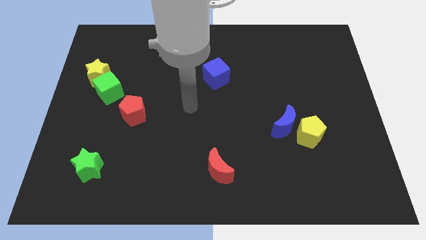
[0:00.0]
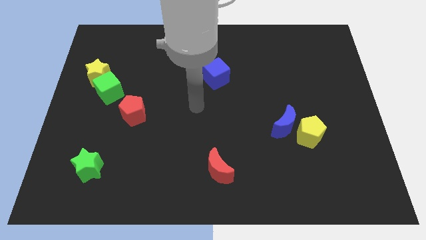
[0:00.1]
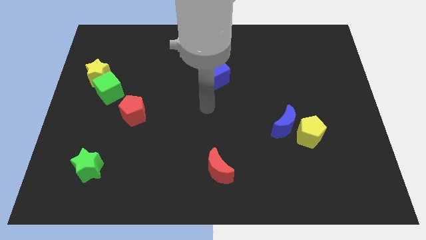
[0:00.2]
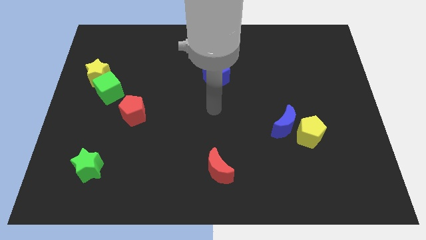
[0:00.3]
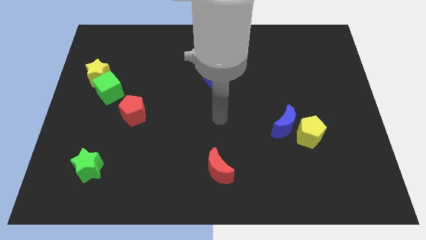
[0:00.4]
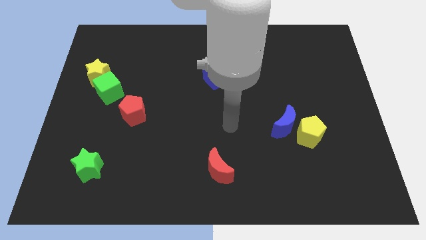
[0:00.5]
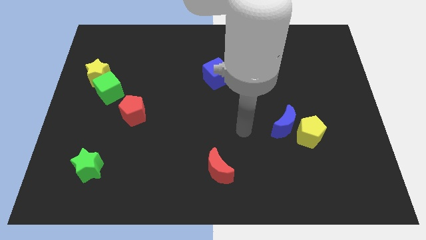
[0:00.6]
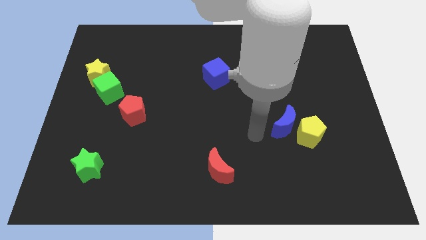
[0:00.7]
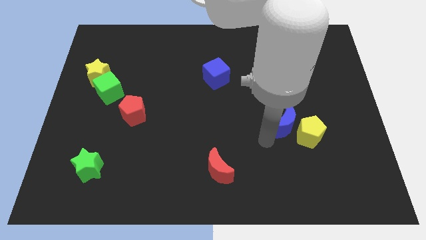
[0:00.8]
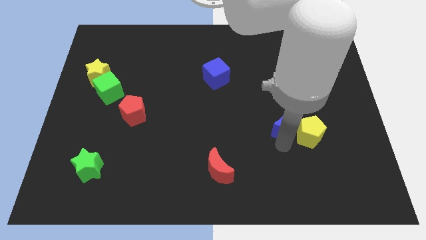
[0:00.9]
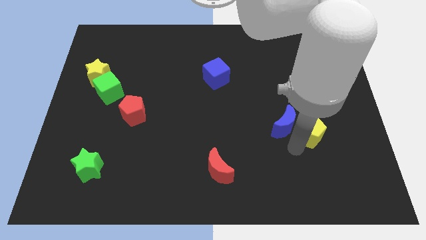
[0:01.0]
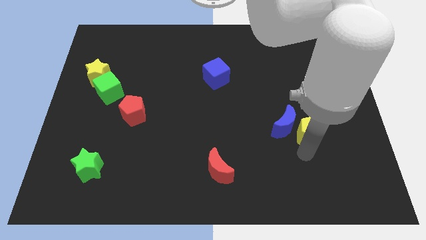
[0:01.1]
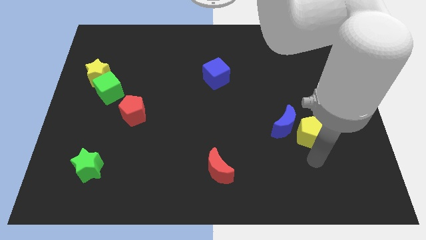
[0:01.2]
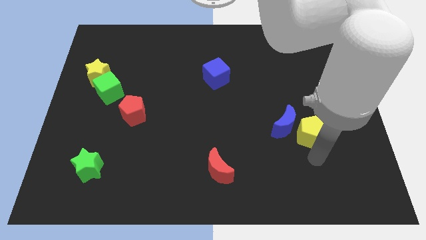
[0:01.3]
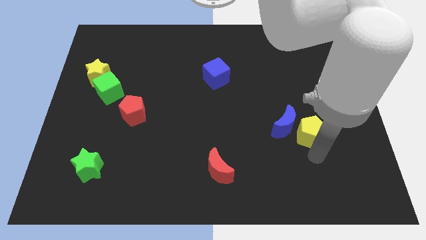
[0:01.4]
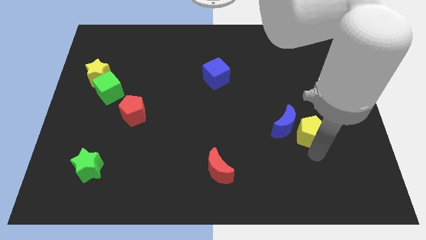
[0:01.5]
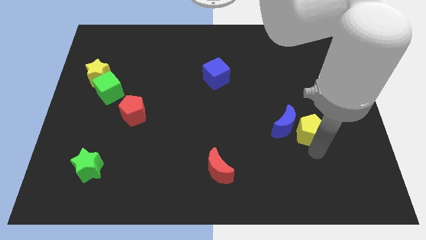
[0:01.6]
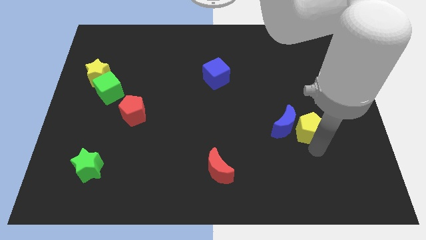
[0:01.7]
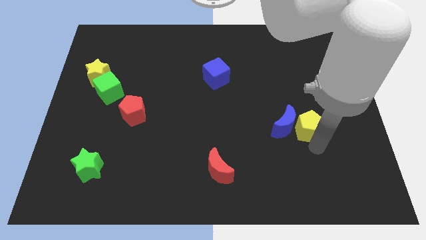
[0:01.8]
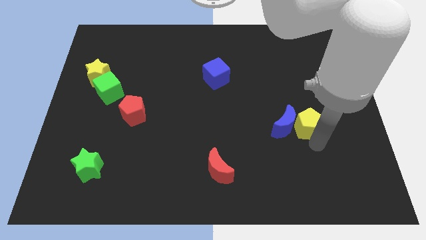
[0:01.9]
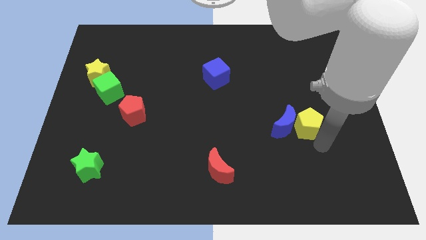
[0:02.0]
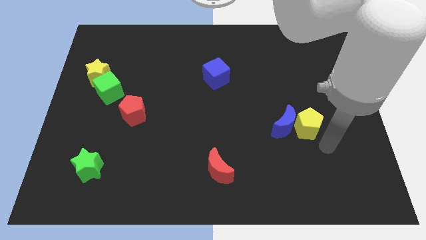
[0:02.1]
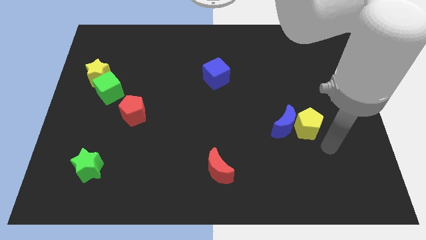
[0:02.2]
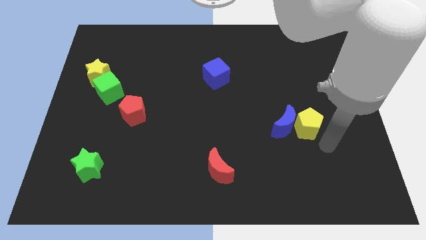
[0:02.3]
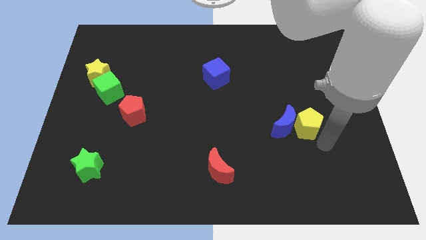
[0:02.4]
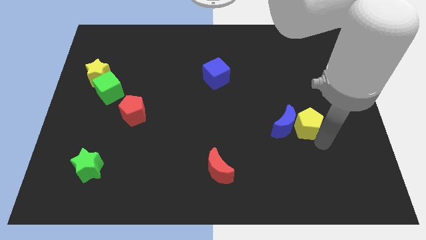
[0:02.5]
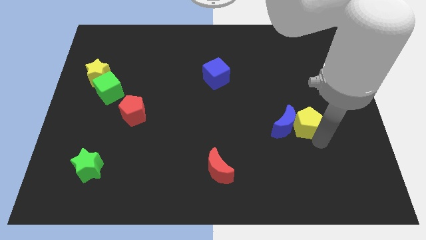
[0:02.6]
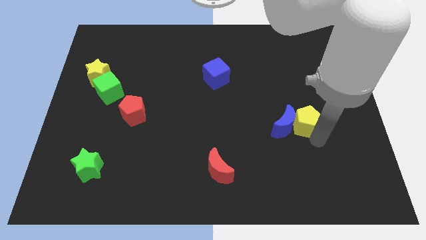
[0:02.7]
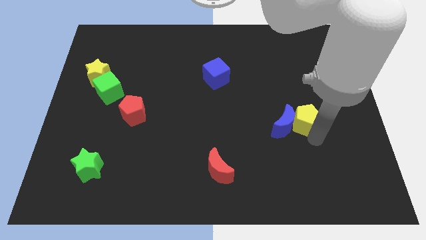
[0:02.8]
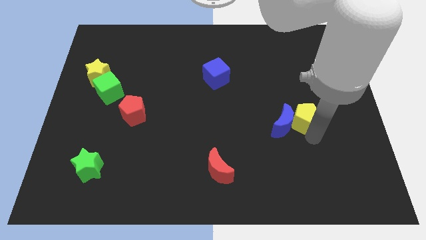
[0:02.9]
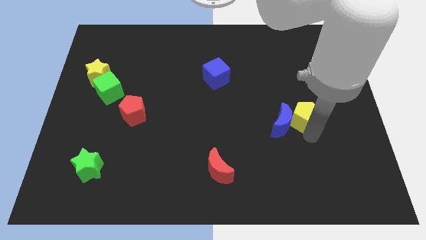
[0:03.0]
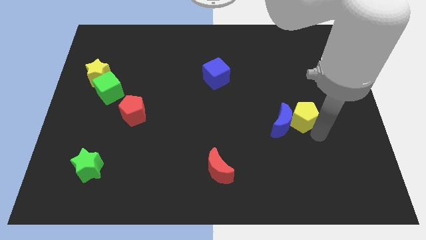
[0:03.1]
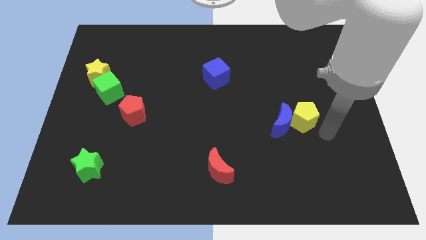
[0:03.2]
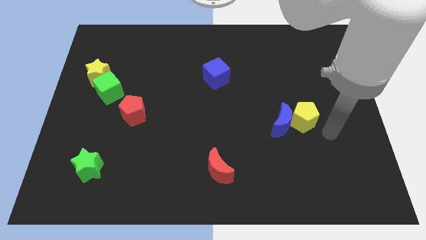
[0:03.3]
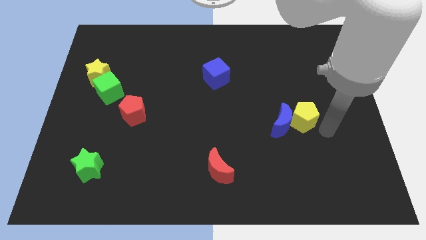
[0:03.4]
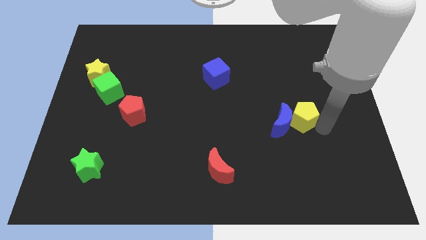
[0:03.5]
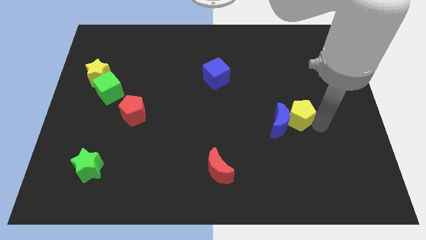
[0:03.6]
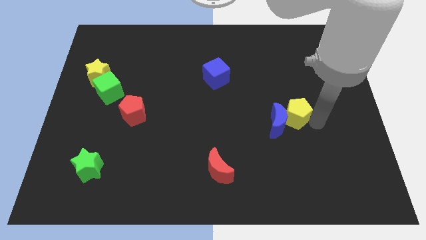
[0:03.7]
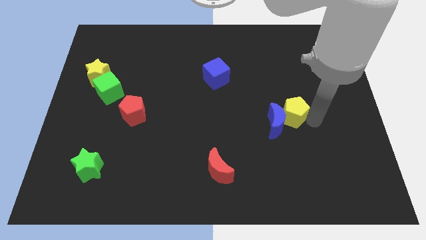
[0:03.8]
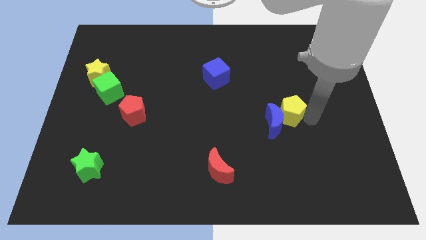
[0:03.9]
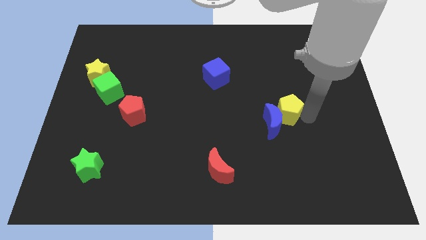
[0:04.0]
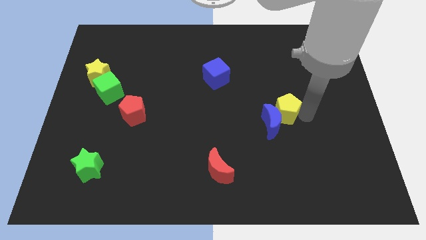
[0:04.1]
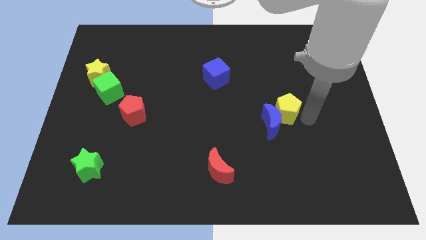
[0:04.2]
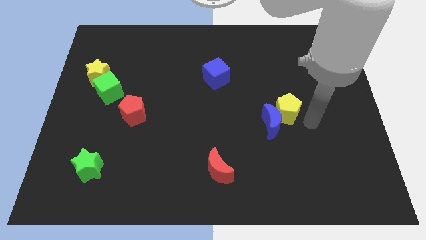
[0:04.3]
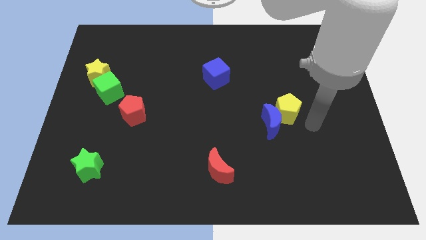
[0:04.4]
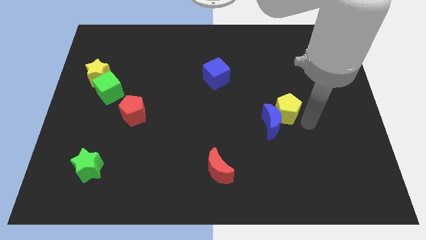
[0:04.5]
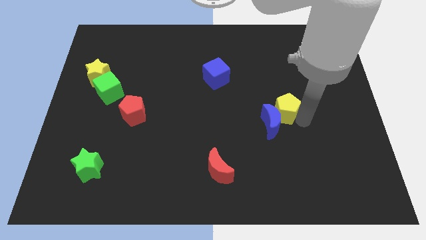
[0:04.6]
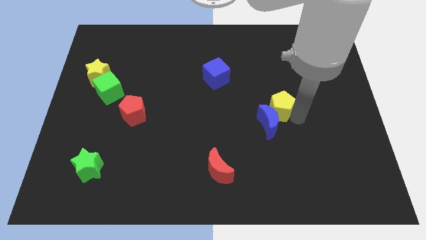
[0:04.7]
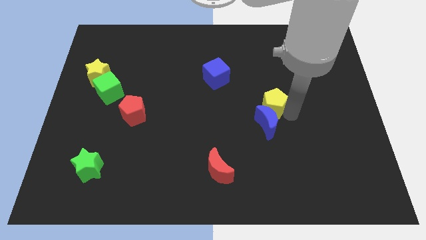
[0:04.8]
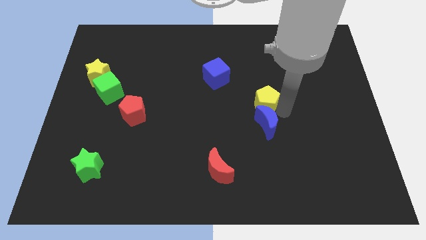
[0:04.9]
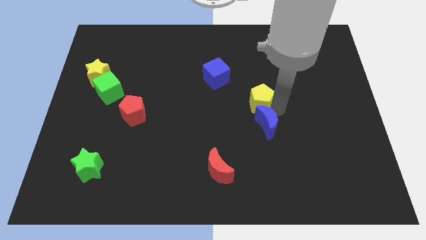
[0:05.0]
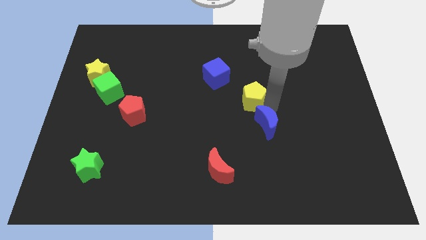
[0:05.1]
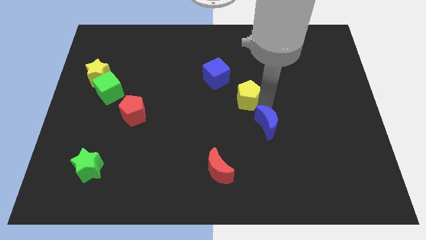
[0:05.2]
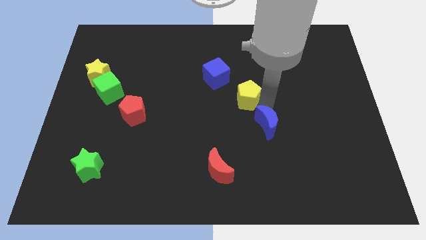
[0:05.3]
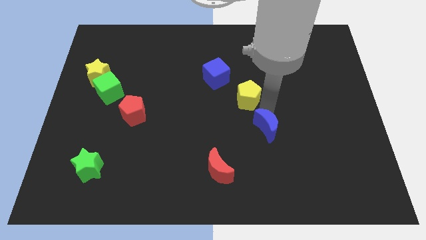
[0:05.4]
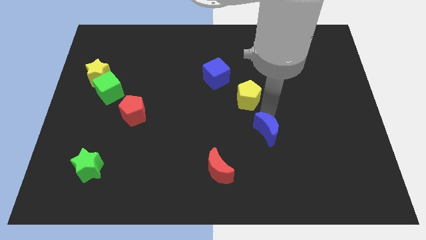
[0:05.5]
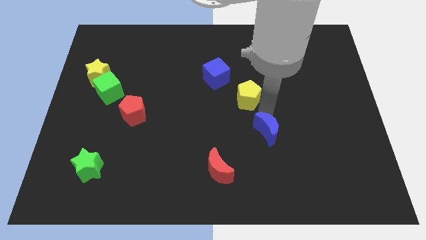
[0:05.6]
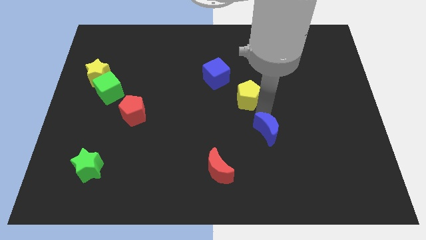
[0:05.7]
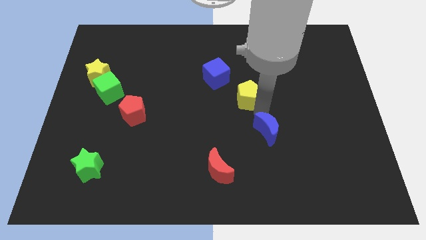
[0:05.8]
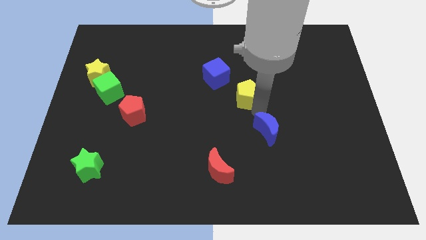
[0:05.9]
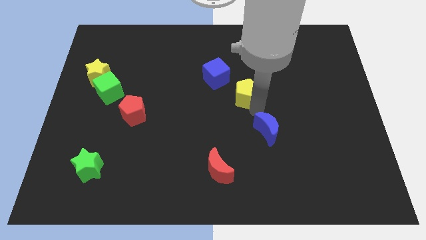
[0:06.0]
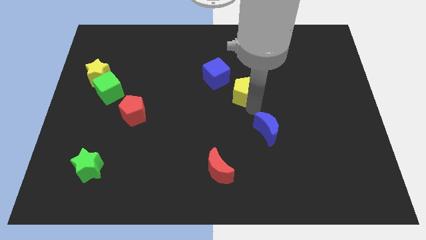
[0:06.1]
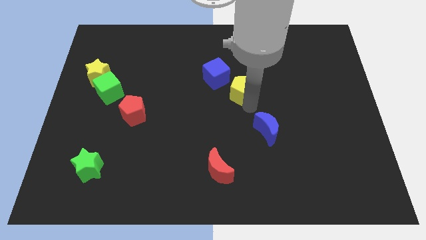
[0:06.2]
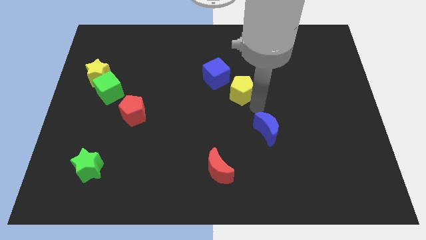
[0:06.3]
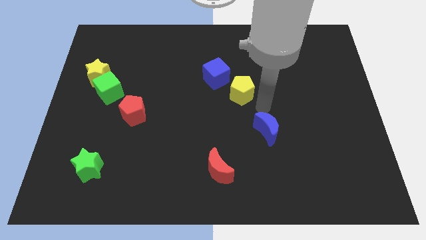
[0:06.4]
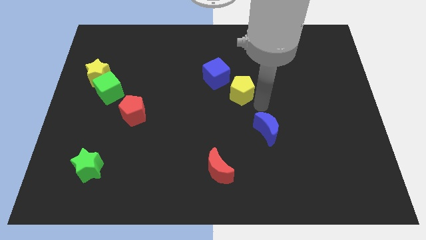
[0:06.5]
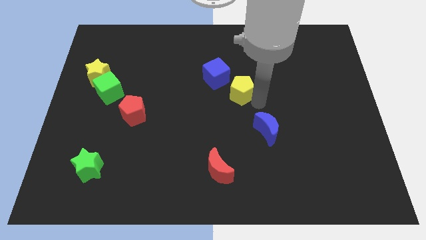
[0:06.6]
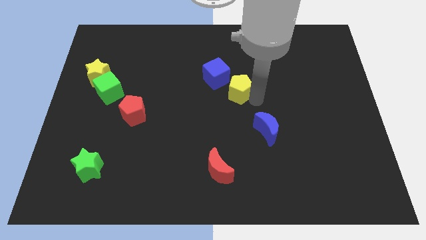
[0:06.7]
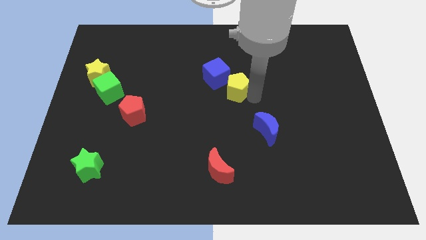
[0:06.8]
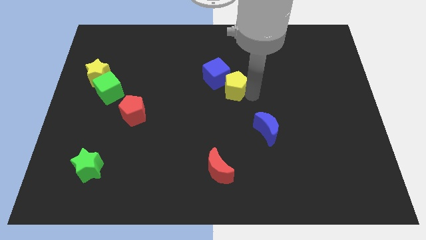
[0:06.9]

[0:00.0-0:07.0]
push the yellow pentagon towards the blue cube
